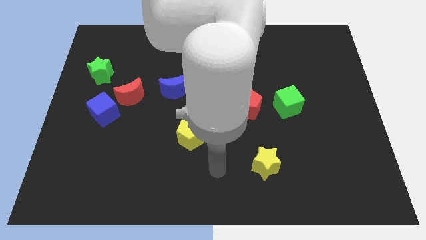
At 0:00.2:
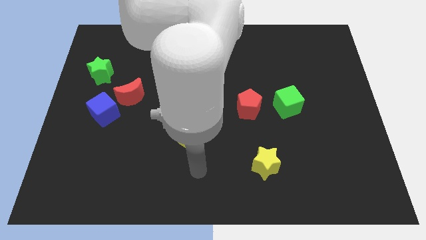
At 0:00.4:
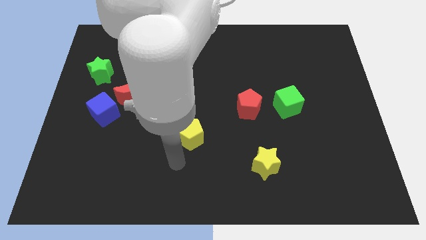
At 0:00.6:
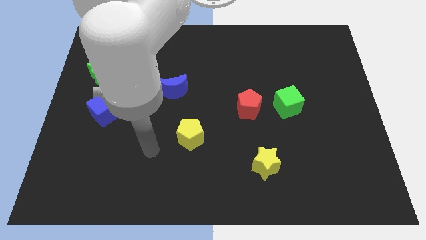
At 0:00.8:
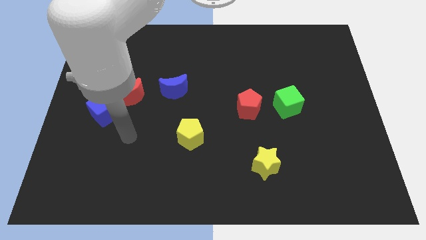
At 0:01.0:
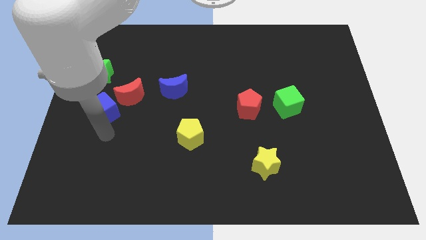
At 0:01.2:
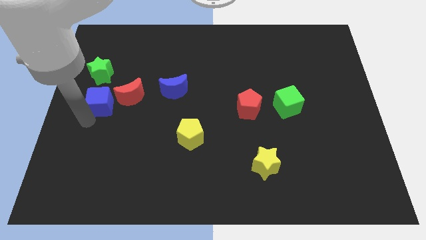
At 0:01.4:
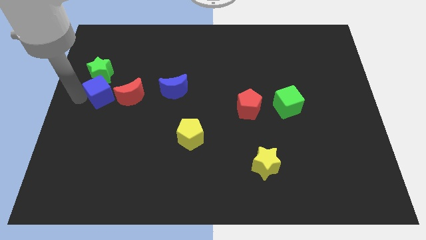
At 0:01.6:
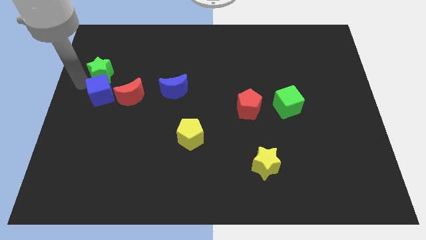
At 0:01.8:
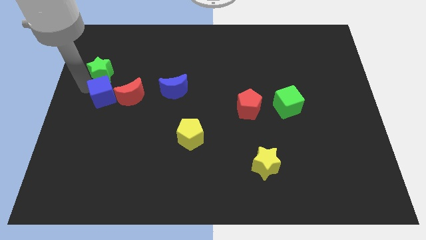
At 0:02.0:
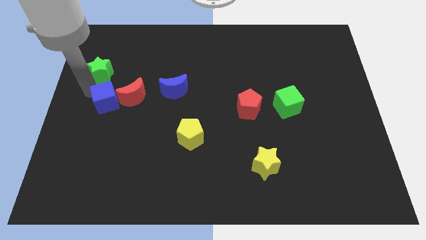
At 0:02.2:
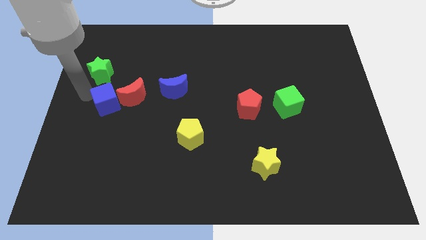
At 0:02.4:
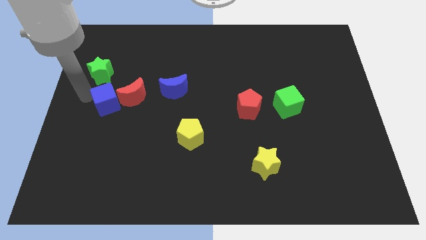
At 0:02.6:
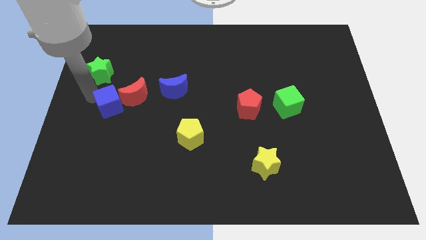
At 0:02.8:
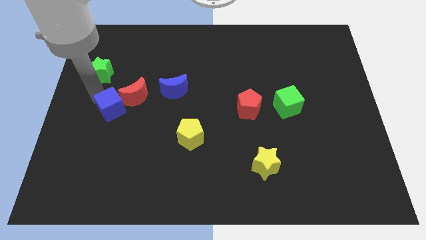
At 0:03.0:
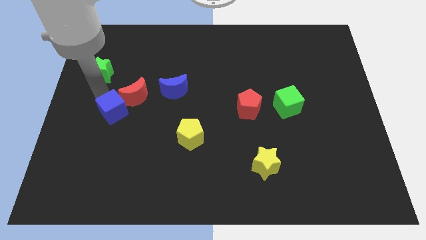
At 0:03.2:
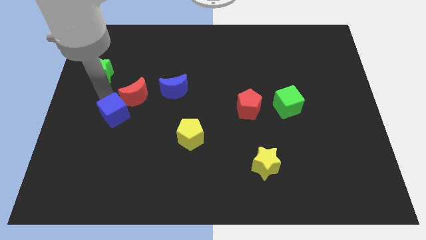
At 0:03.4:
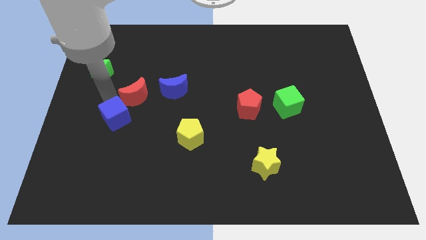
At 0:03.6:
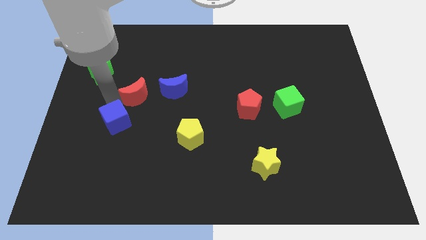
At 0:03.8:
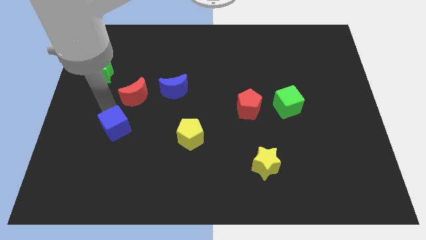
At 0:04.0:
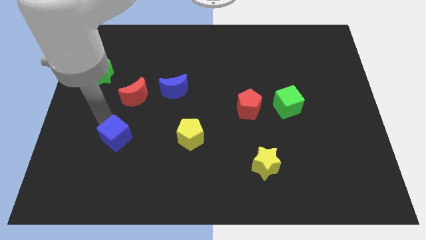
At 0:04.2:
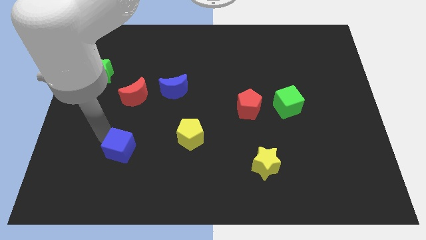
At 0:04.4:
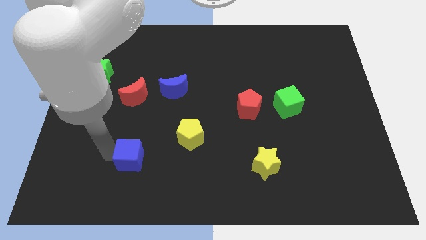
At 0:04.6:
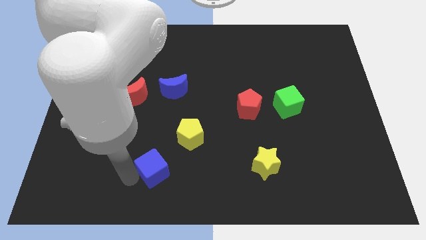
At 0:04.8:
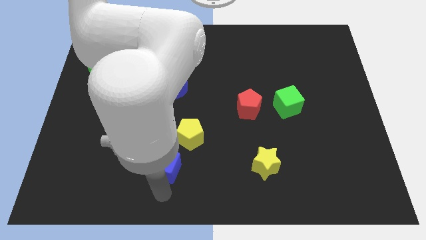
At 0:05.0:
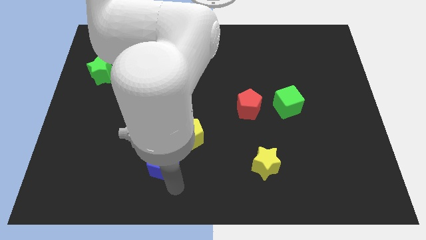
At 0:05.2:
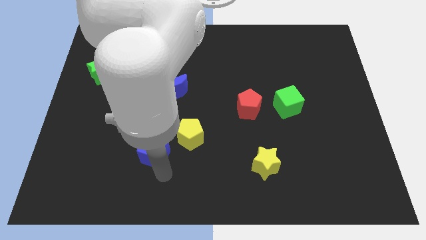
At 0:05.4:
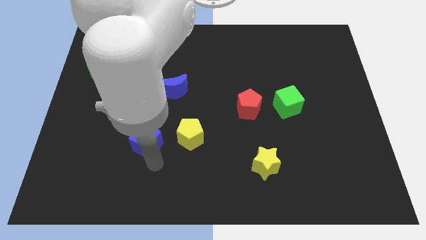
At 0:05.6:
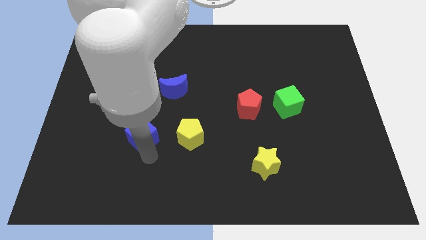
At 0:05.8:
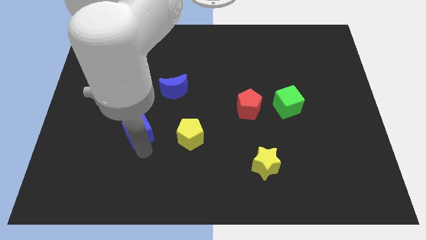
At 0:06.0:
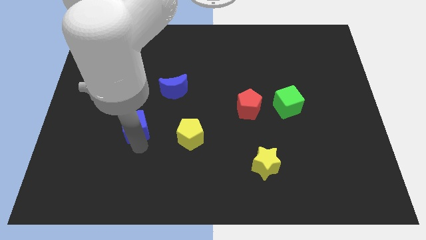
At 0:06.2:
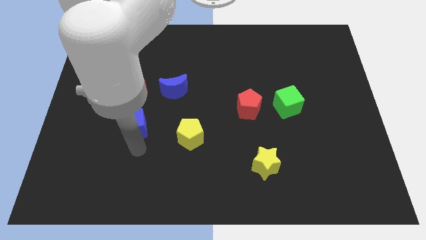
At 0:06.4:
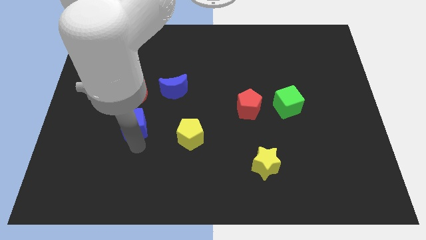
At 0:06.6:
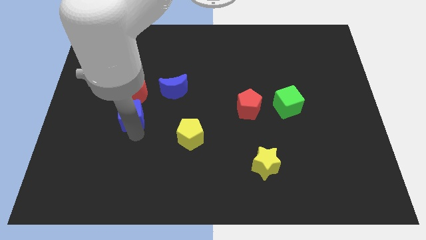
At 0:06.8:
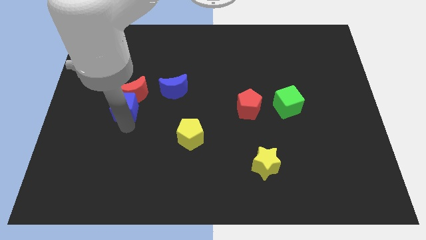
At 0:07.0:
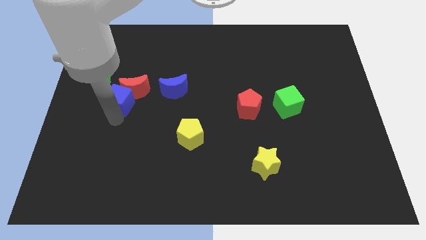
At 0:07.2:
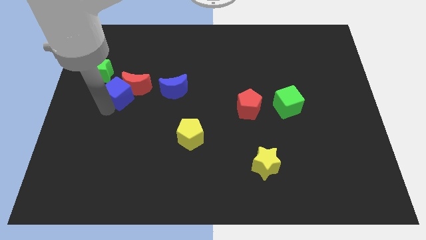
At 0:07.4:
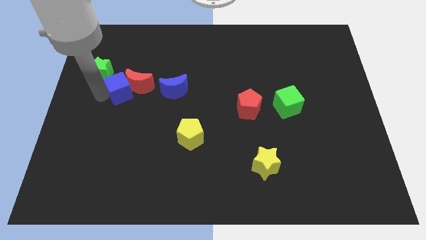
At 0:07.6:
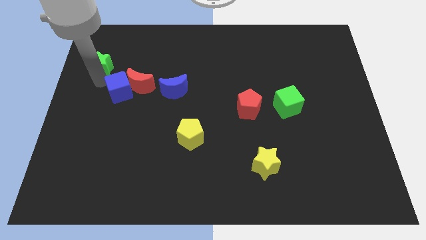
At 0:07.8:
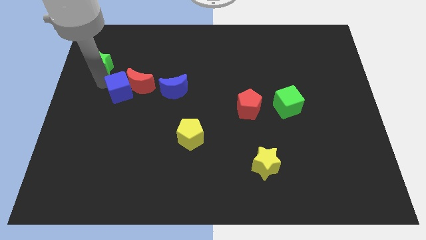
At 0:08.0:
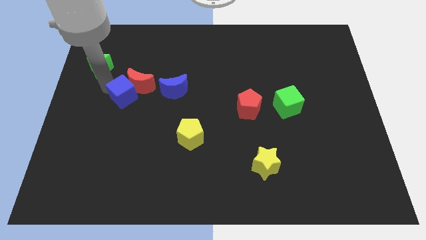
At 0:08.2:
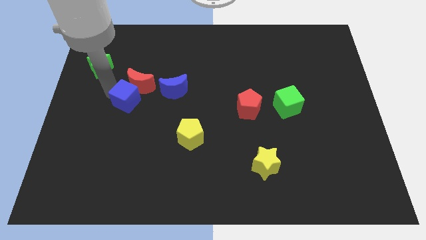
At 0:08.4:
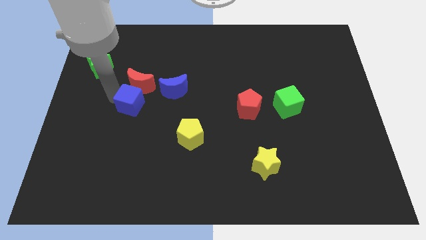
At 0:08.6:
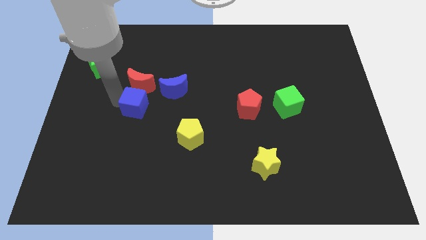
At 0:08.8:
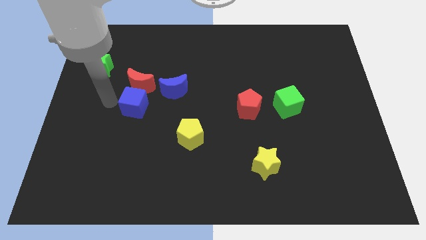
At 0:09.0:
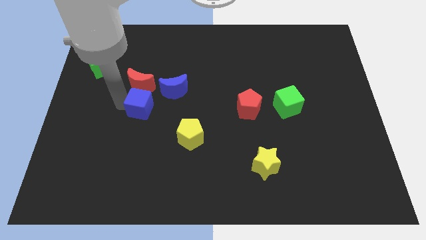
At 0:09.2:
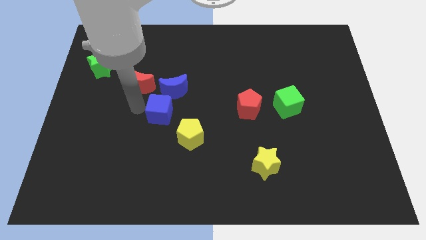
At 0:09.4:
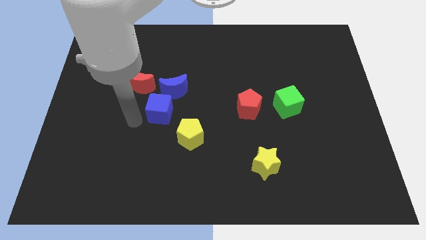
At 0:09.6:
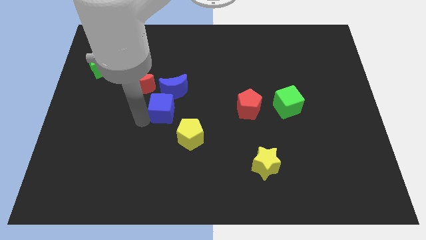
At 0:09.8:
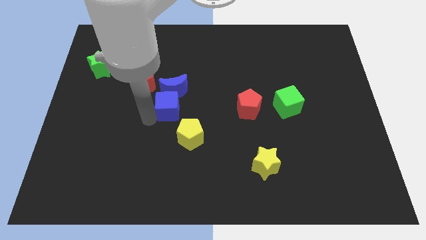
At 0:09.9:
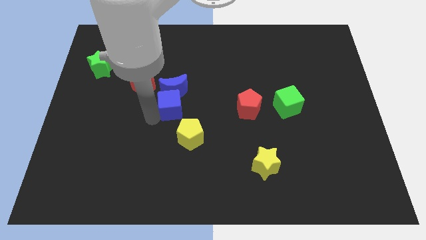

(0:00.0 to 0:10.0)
move the blue cube above the yellow pentagon

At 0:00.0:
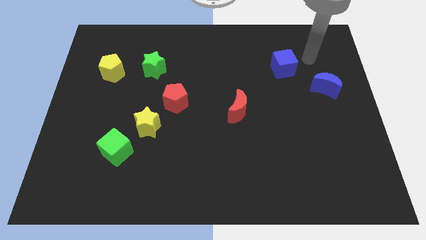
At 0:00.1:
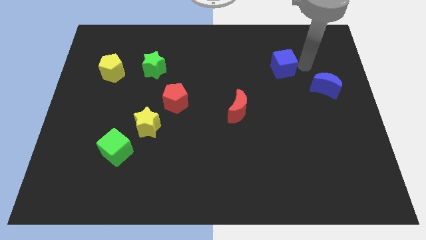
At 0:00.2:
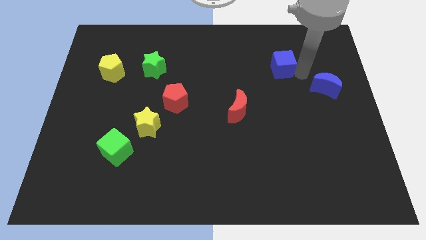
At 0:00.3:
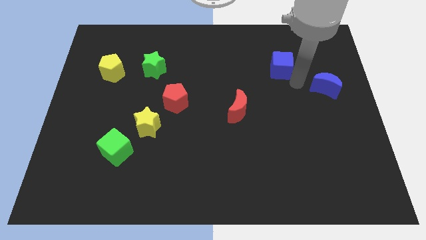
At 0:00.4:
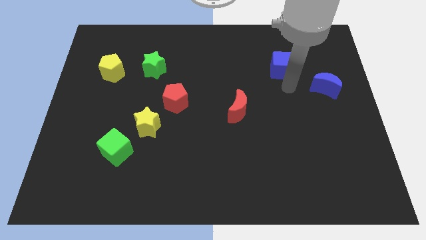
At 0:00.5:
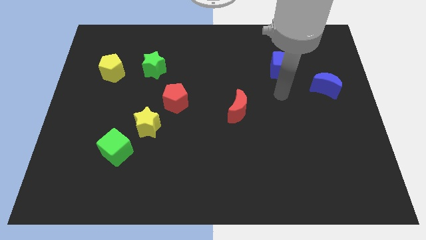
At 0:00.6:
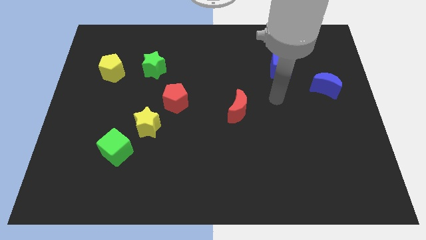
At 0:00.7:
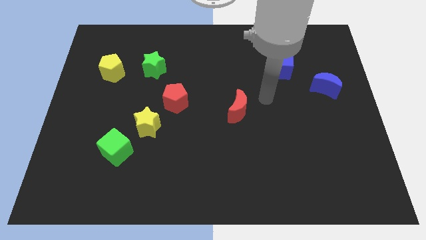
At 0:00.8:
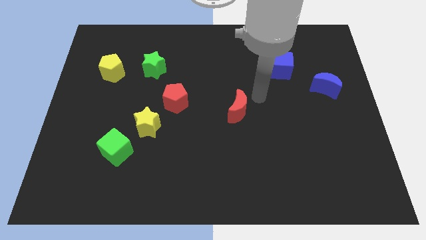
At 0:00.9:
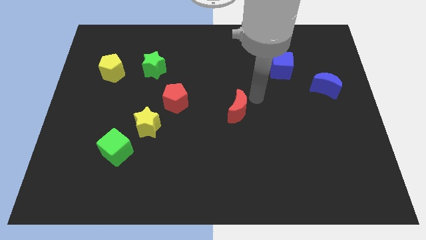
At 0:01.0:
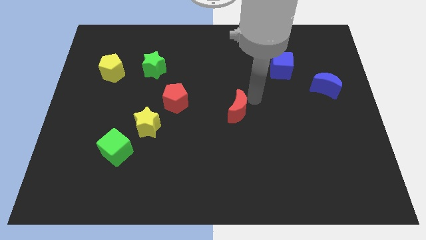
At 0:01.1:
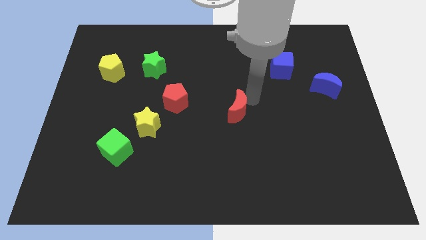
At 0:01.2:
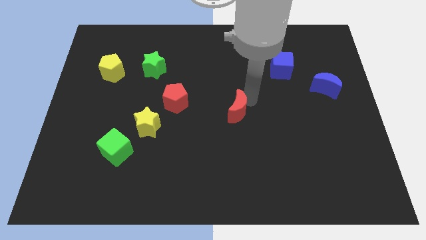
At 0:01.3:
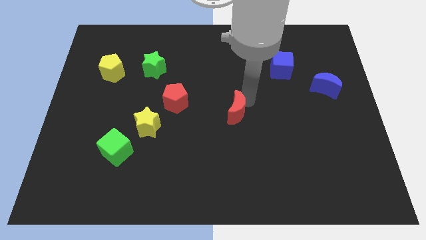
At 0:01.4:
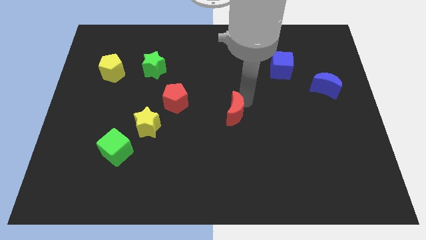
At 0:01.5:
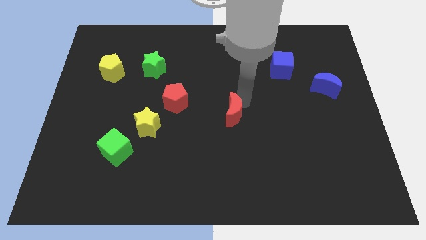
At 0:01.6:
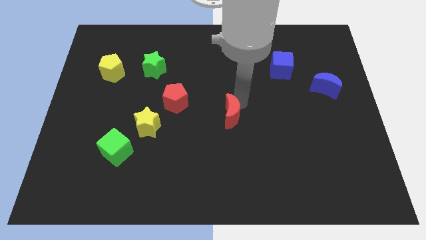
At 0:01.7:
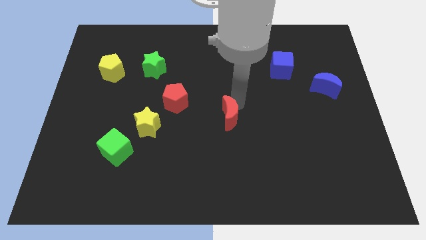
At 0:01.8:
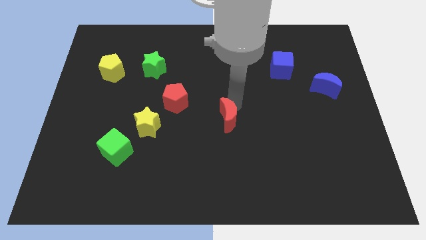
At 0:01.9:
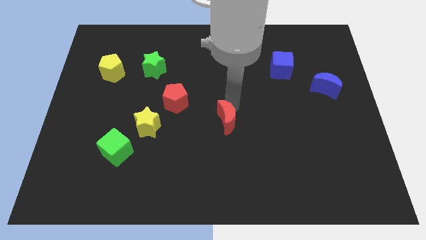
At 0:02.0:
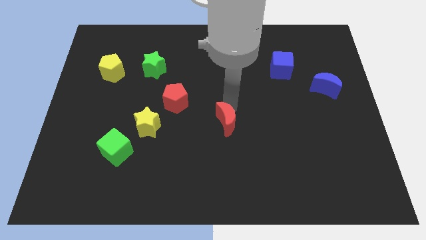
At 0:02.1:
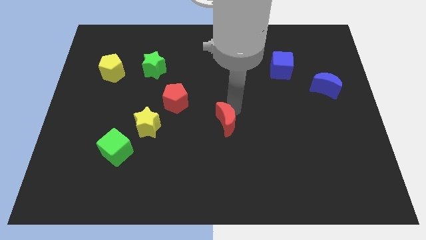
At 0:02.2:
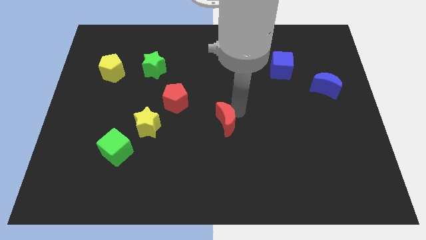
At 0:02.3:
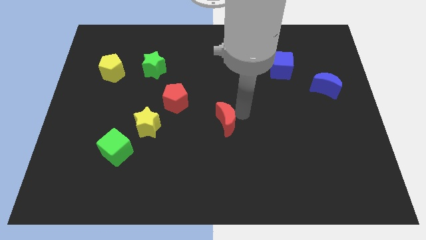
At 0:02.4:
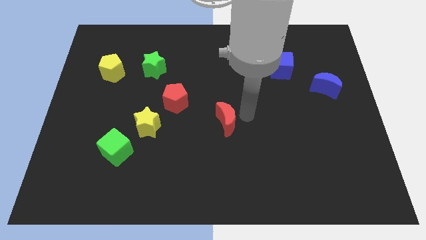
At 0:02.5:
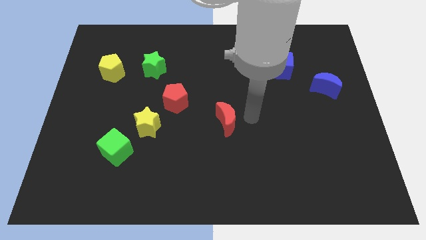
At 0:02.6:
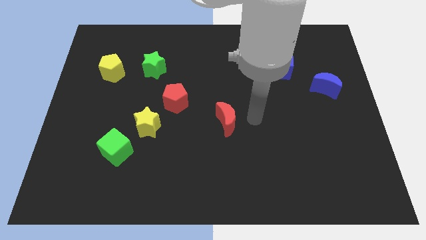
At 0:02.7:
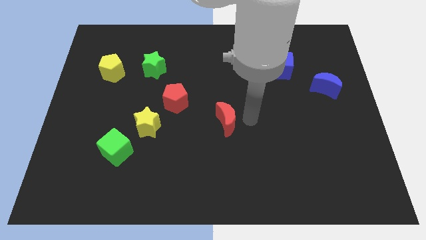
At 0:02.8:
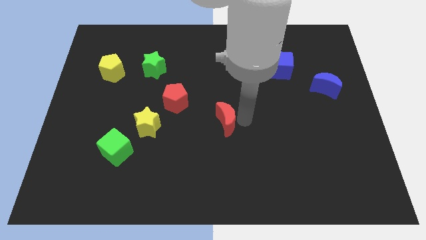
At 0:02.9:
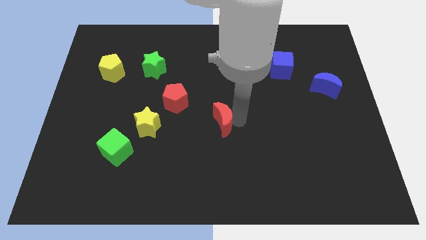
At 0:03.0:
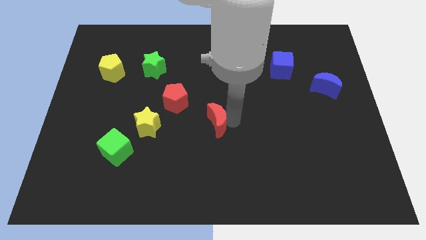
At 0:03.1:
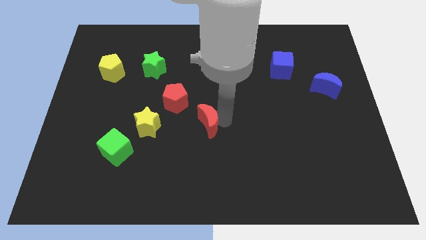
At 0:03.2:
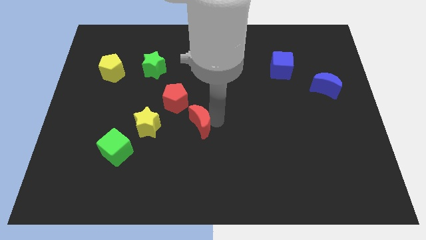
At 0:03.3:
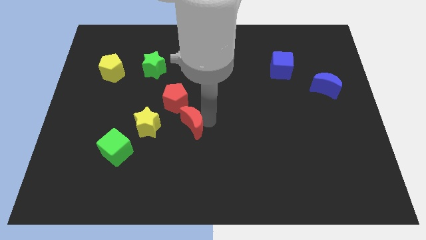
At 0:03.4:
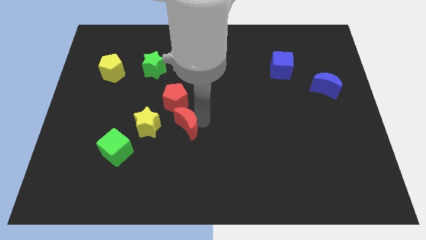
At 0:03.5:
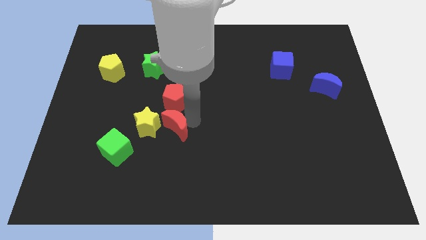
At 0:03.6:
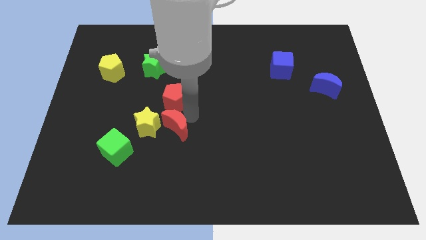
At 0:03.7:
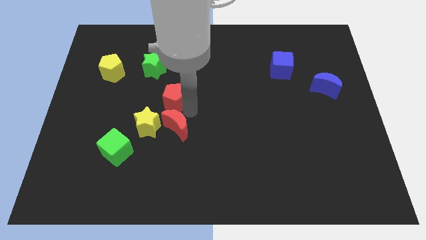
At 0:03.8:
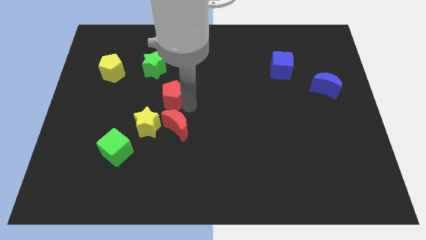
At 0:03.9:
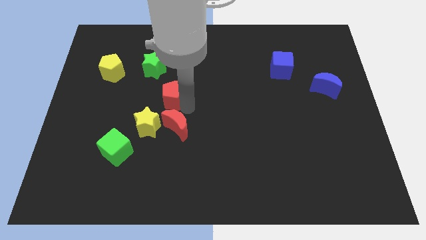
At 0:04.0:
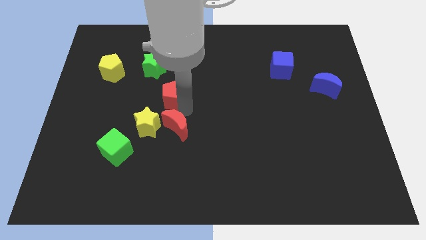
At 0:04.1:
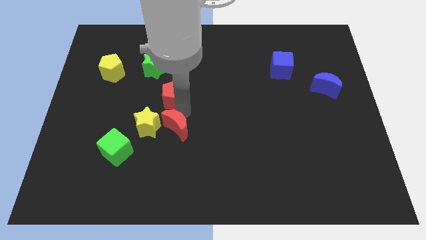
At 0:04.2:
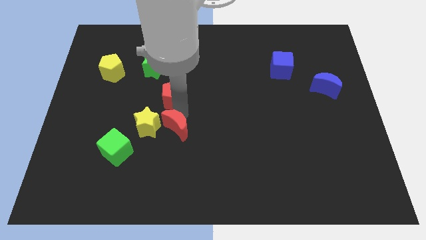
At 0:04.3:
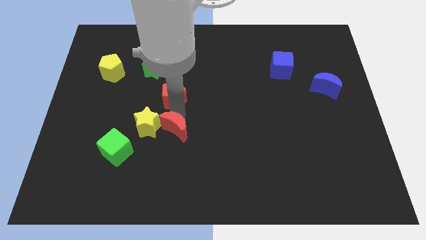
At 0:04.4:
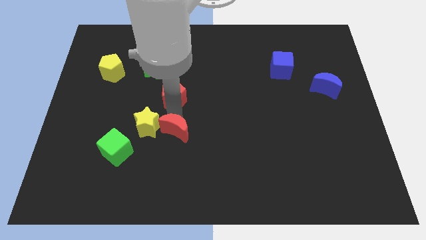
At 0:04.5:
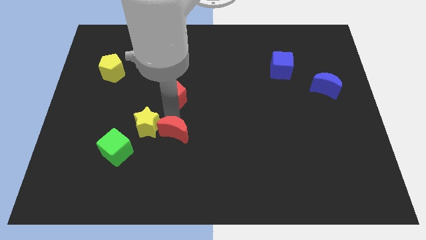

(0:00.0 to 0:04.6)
move the red moon to the right of the green cube
